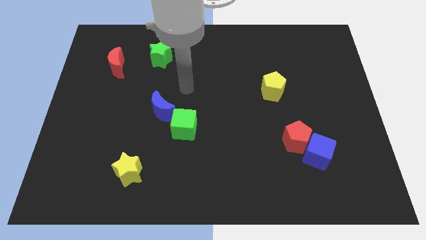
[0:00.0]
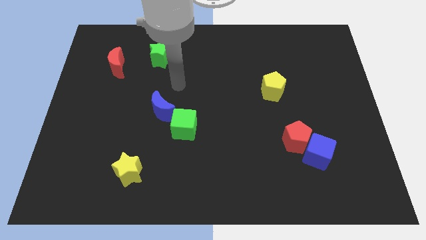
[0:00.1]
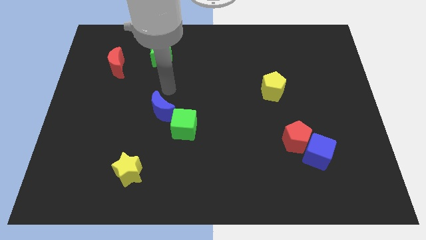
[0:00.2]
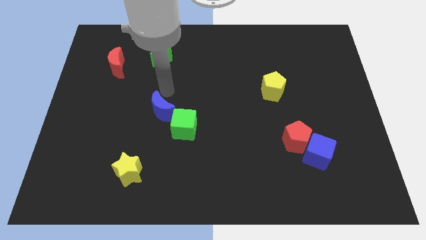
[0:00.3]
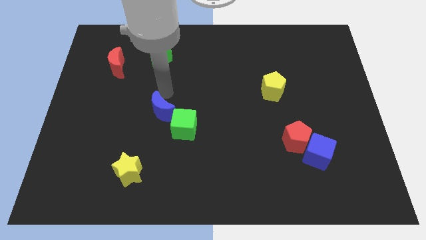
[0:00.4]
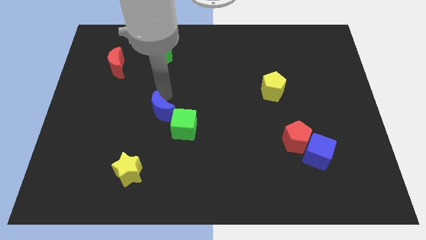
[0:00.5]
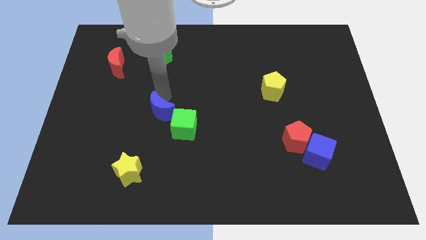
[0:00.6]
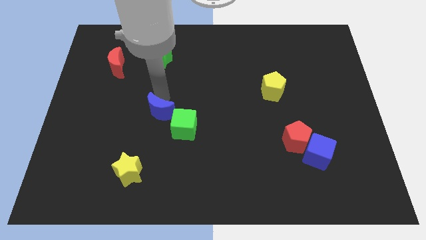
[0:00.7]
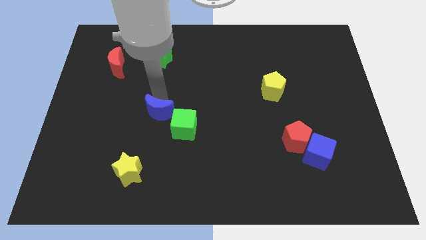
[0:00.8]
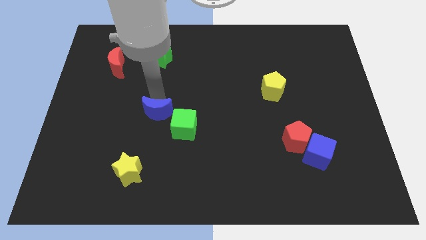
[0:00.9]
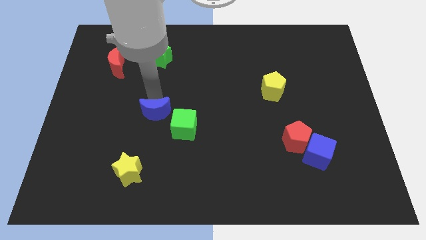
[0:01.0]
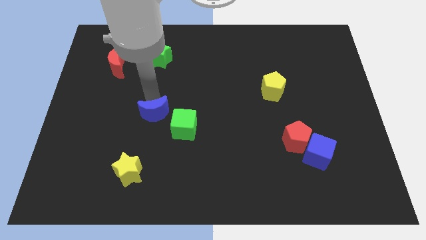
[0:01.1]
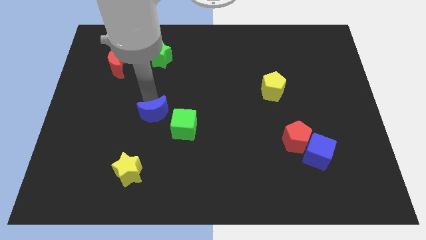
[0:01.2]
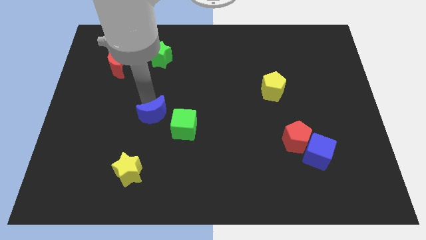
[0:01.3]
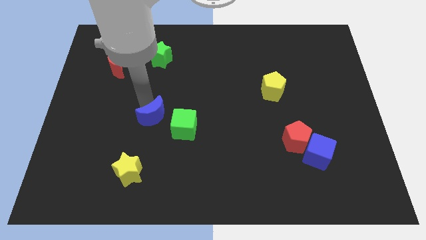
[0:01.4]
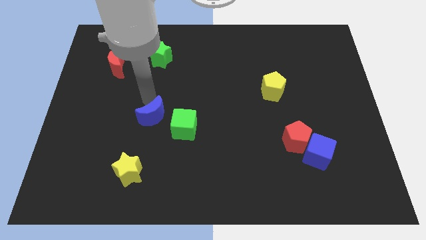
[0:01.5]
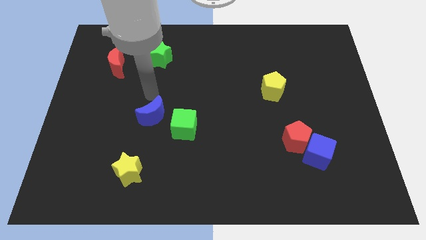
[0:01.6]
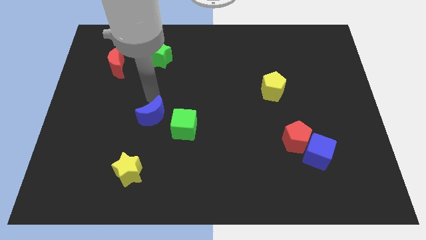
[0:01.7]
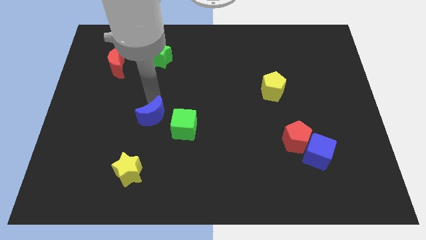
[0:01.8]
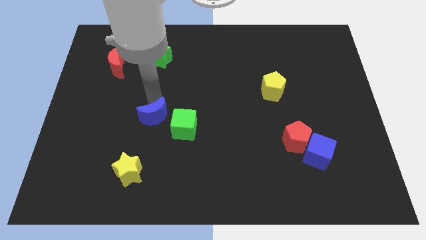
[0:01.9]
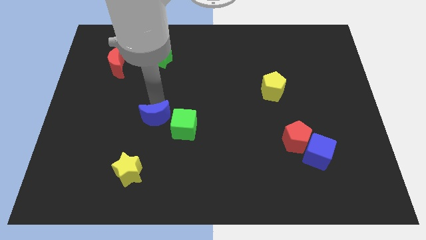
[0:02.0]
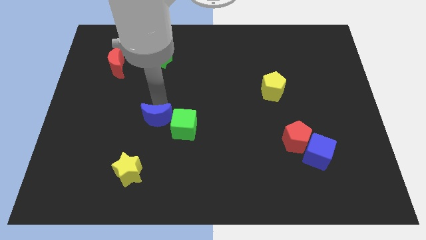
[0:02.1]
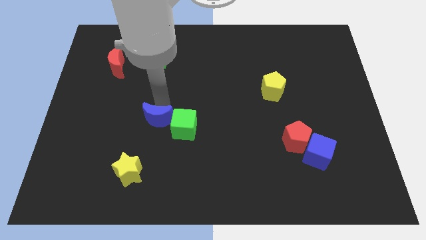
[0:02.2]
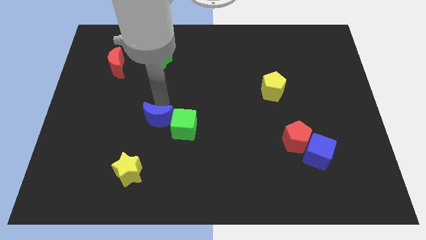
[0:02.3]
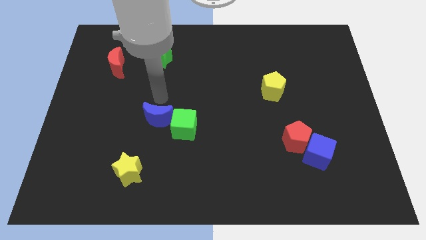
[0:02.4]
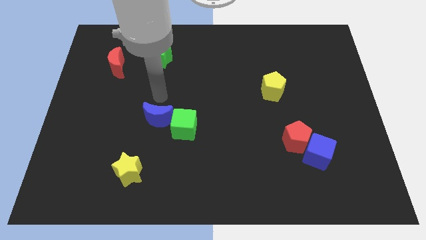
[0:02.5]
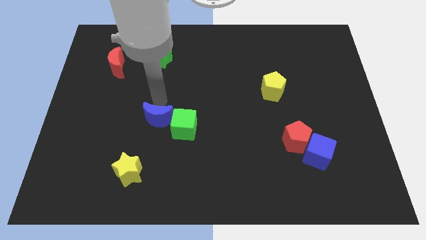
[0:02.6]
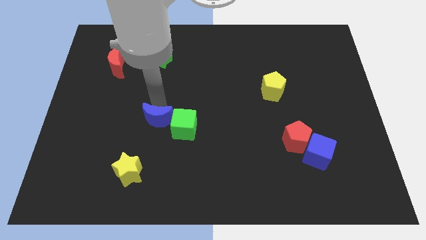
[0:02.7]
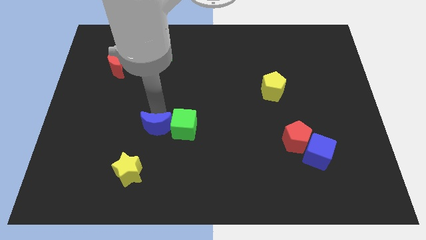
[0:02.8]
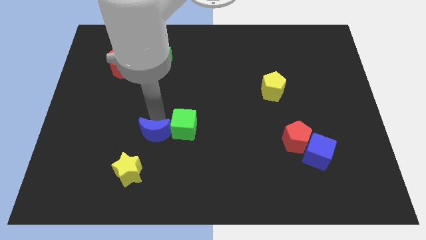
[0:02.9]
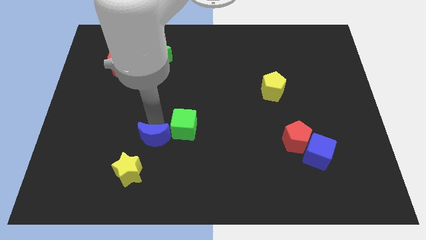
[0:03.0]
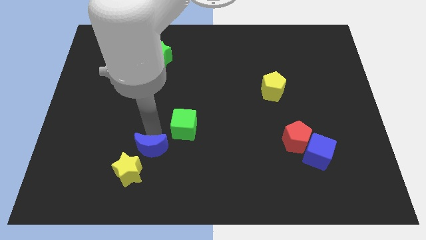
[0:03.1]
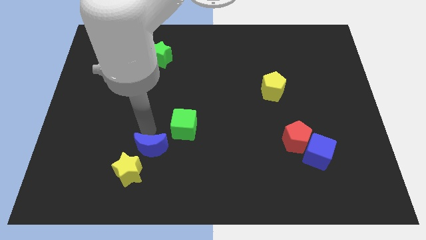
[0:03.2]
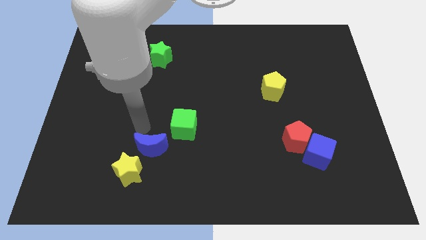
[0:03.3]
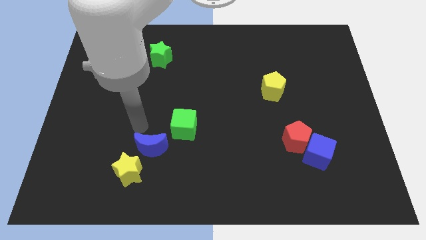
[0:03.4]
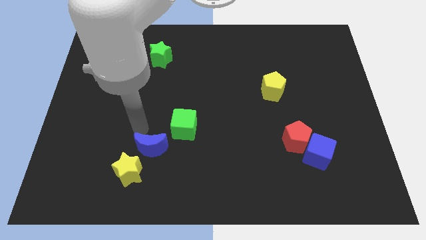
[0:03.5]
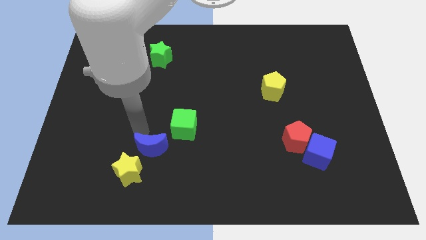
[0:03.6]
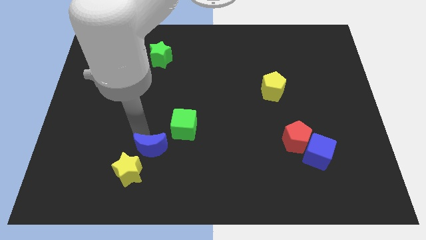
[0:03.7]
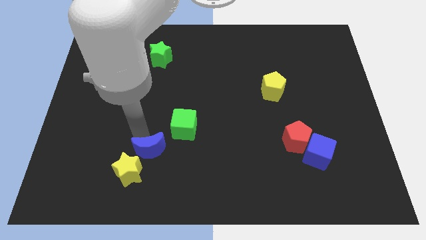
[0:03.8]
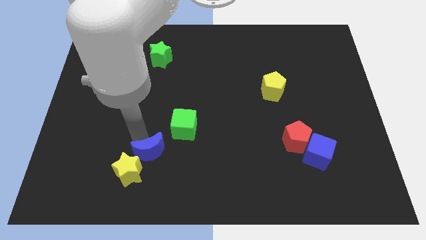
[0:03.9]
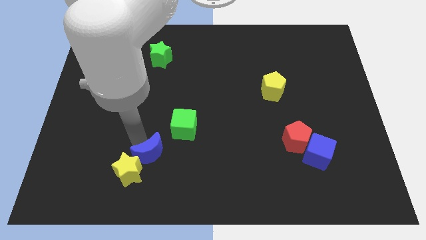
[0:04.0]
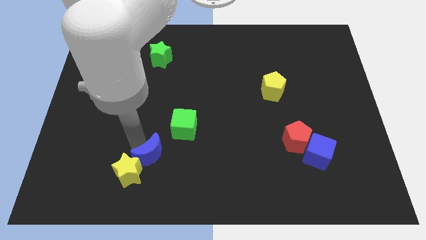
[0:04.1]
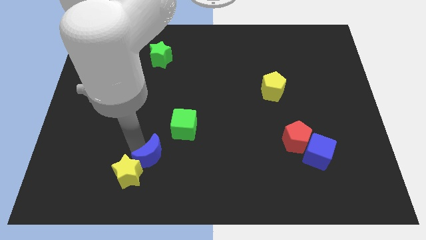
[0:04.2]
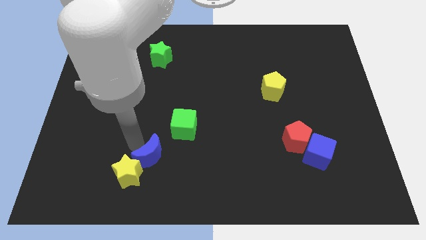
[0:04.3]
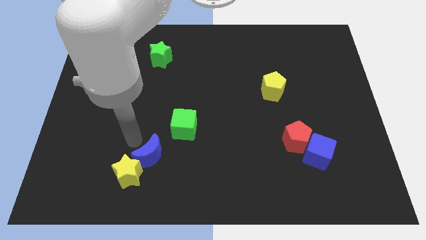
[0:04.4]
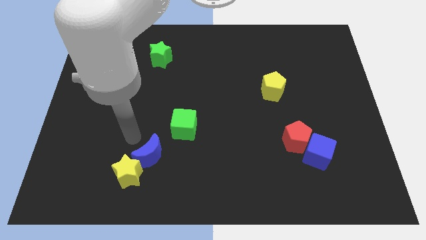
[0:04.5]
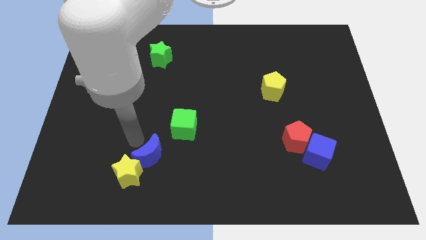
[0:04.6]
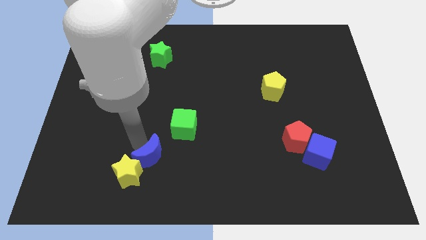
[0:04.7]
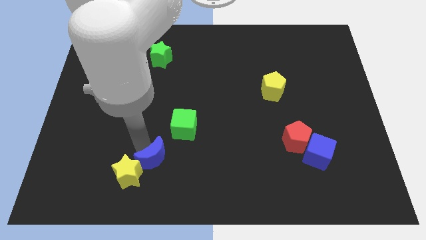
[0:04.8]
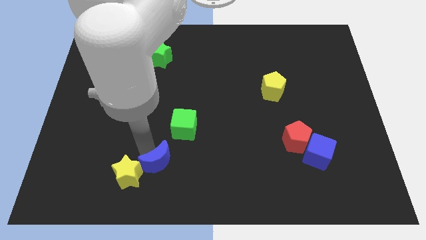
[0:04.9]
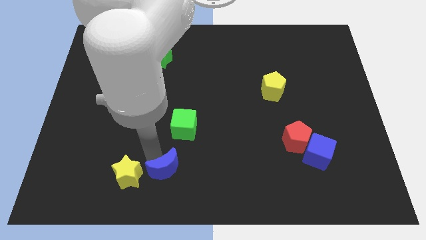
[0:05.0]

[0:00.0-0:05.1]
push the blue moon to the bottom

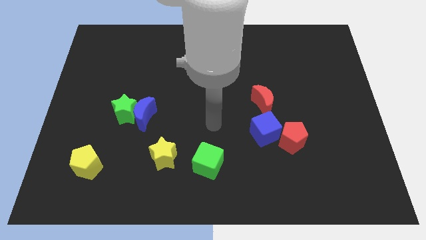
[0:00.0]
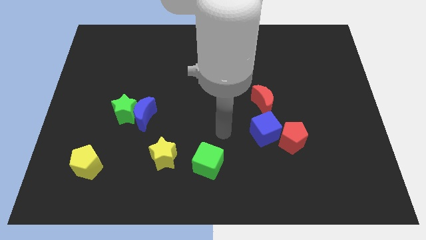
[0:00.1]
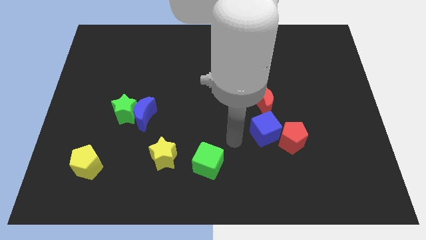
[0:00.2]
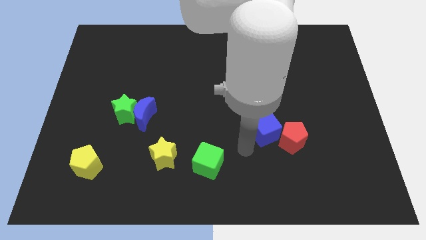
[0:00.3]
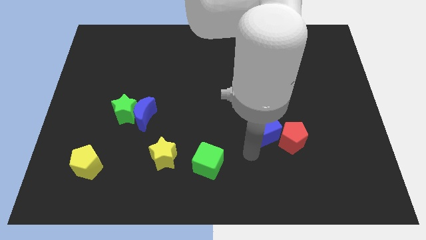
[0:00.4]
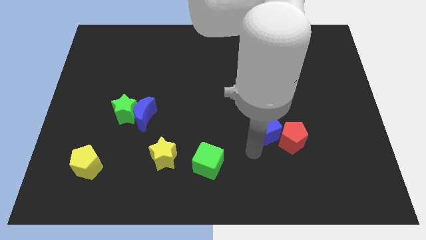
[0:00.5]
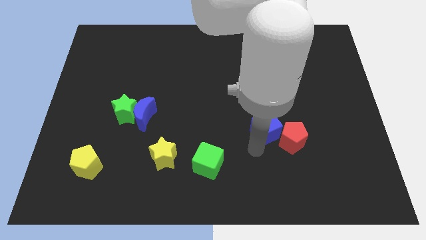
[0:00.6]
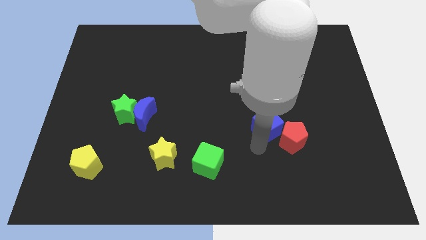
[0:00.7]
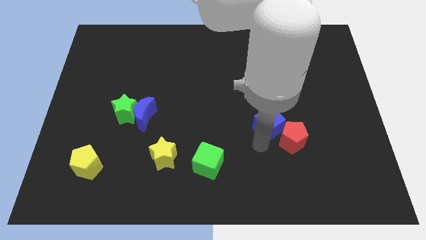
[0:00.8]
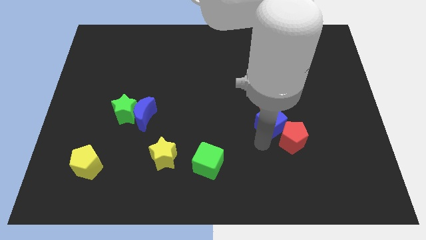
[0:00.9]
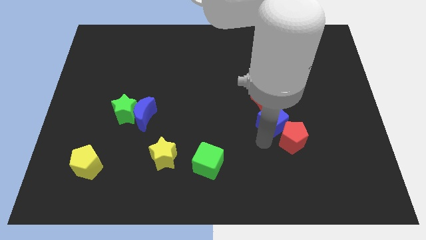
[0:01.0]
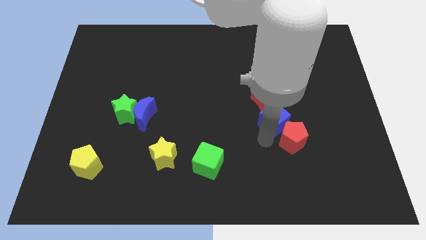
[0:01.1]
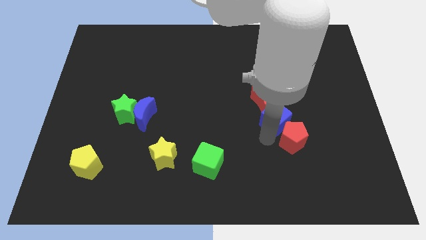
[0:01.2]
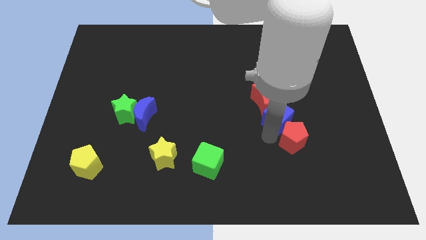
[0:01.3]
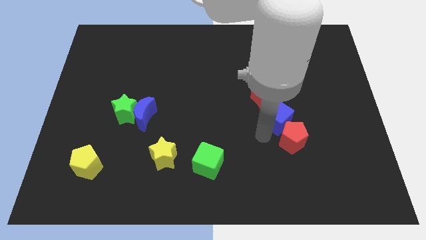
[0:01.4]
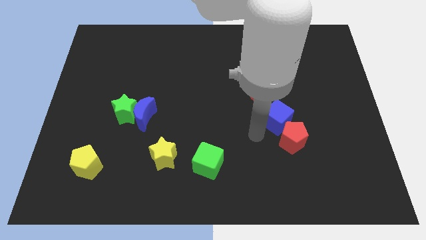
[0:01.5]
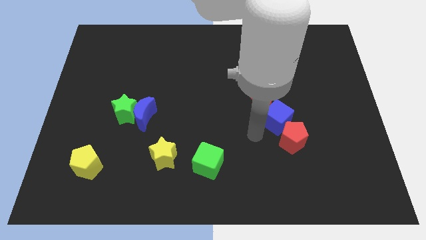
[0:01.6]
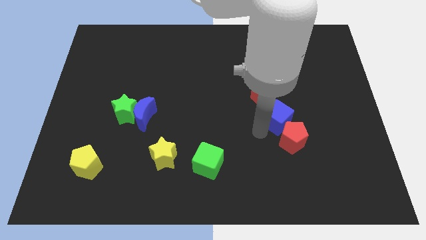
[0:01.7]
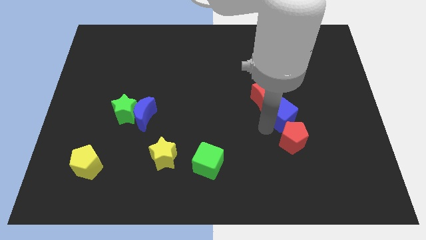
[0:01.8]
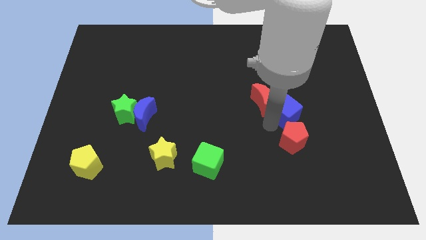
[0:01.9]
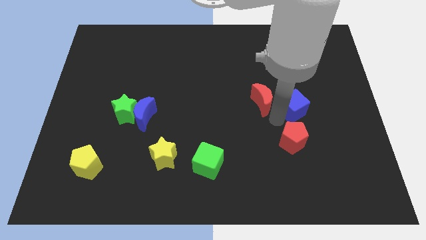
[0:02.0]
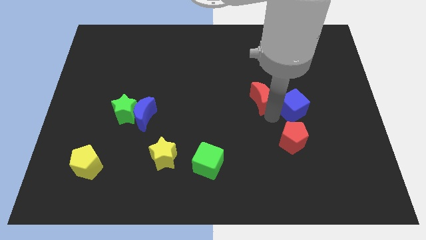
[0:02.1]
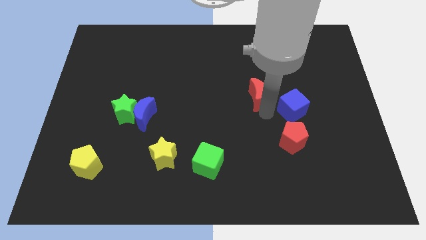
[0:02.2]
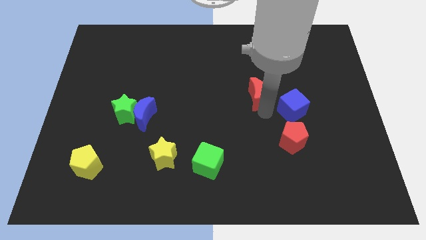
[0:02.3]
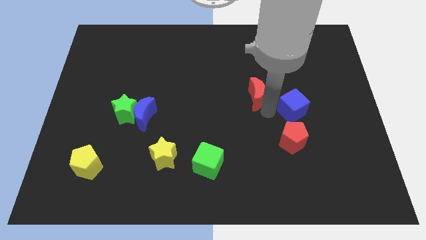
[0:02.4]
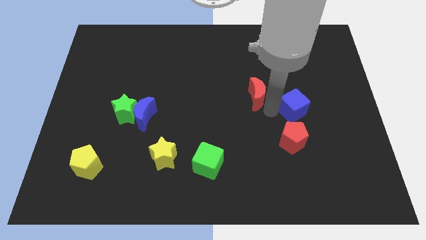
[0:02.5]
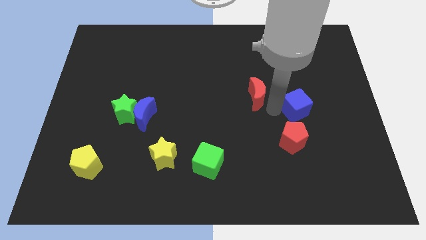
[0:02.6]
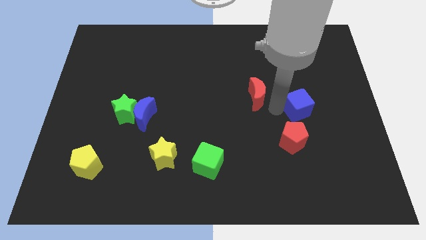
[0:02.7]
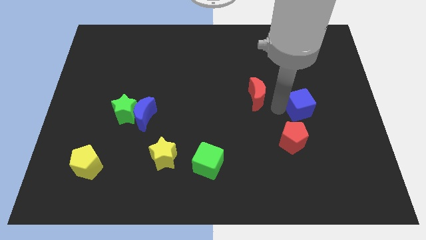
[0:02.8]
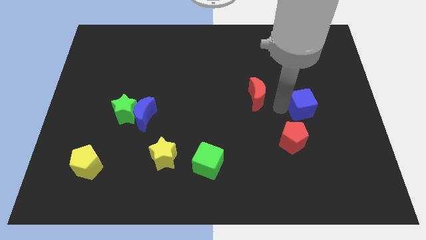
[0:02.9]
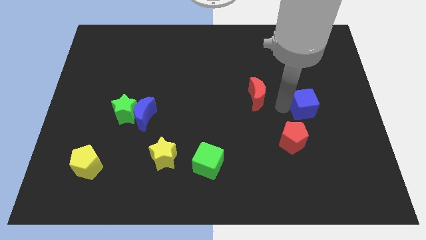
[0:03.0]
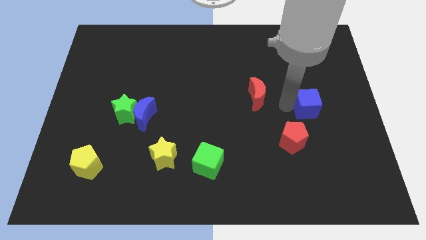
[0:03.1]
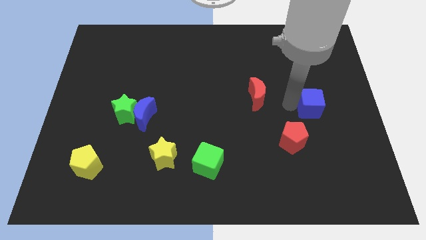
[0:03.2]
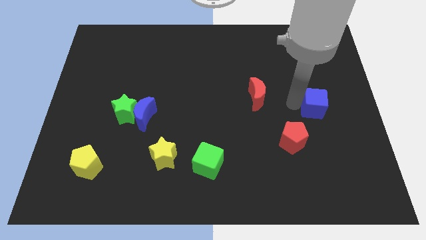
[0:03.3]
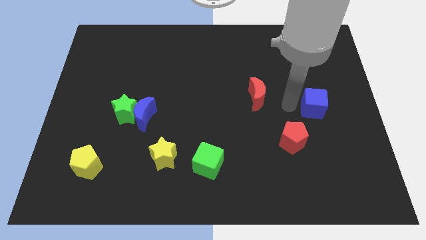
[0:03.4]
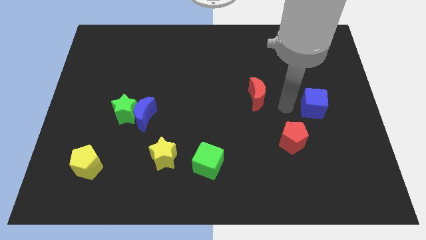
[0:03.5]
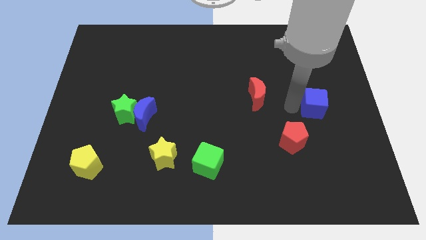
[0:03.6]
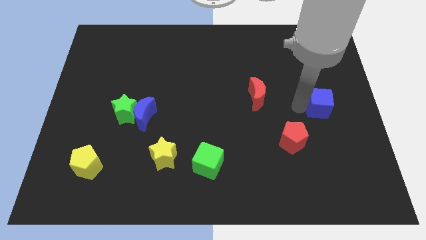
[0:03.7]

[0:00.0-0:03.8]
slide the blue cube to the right side
